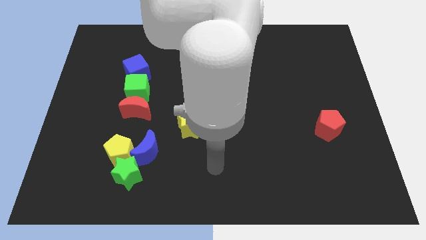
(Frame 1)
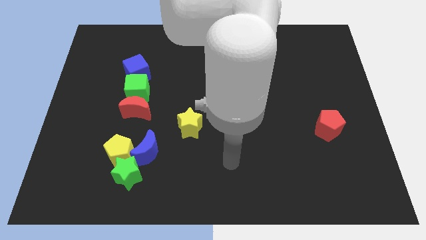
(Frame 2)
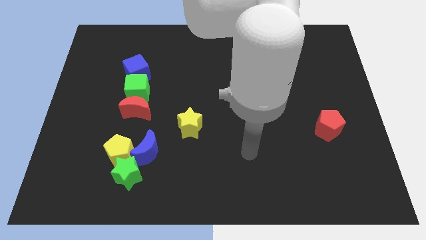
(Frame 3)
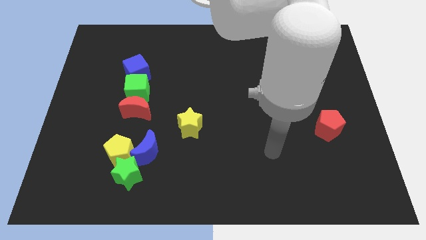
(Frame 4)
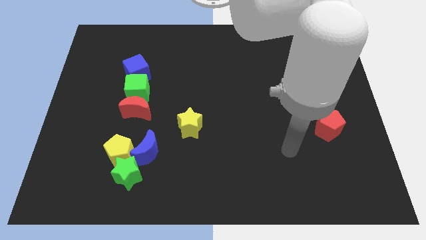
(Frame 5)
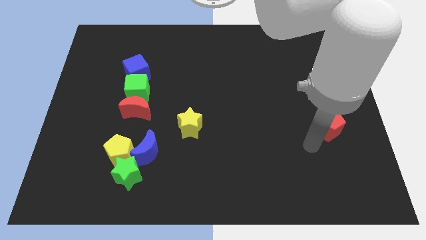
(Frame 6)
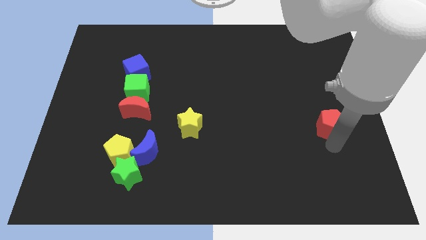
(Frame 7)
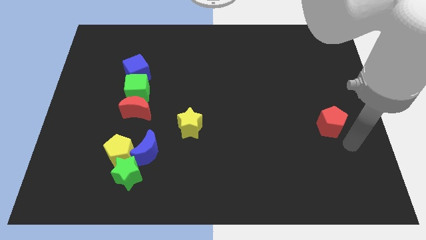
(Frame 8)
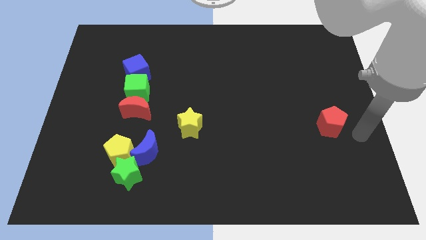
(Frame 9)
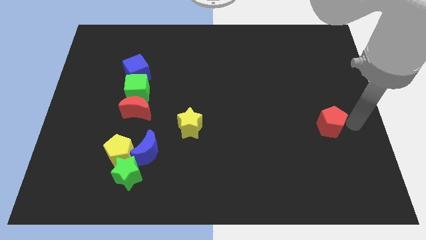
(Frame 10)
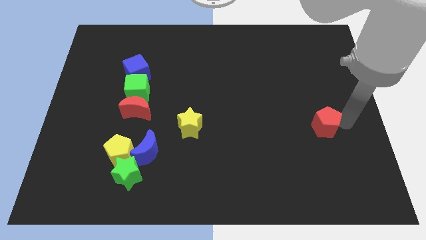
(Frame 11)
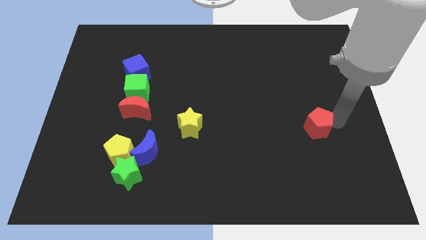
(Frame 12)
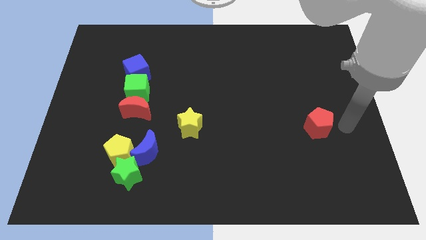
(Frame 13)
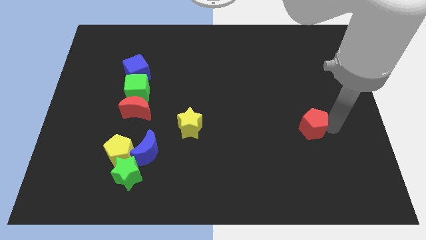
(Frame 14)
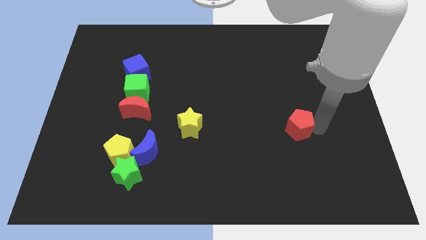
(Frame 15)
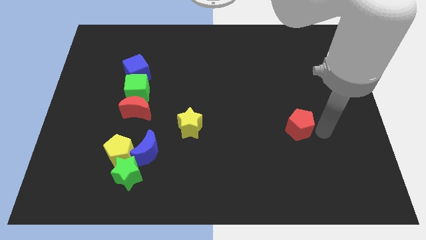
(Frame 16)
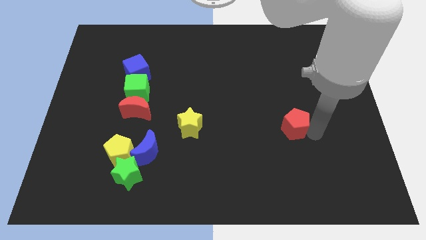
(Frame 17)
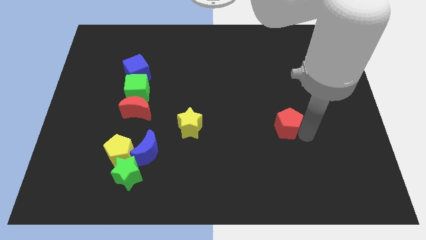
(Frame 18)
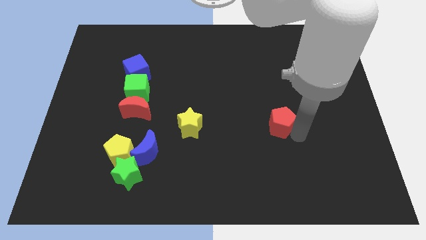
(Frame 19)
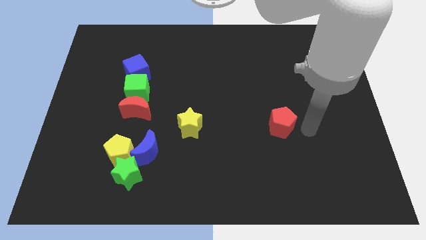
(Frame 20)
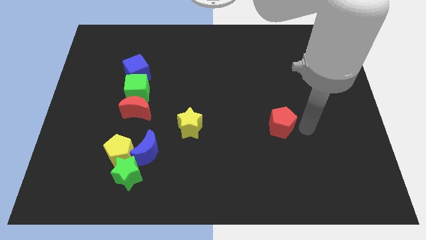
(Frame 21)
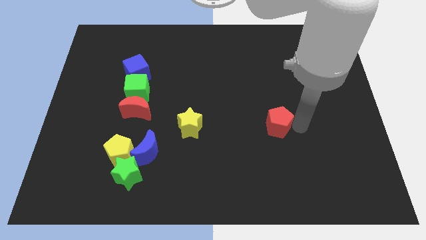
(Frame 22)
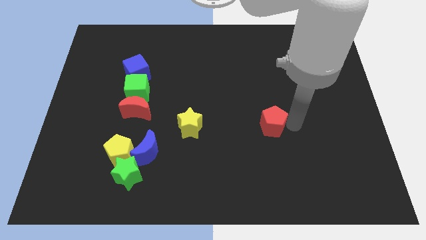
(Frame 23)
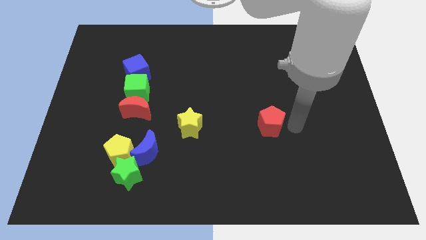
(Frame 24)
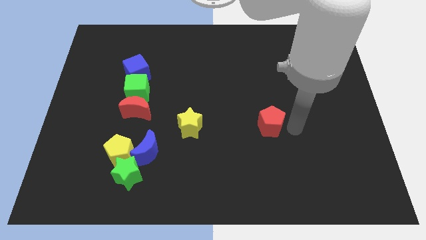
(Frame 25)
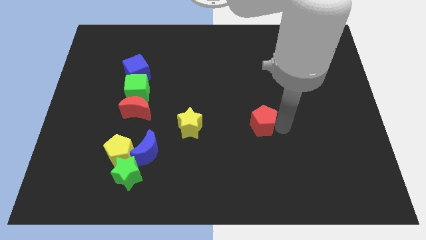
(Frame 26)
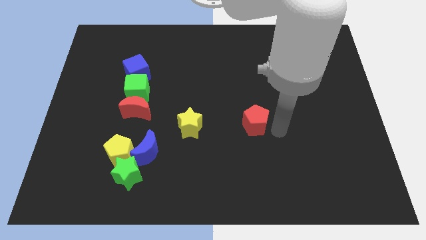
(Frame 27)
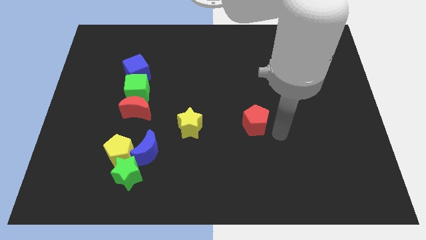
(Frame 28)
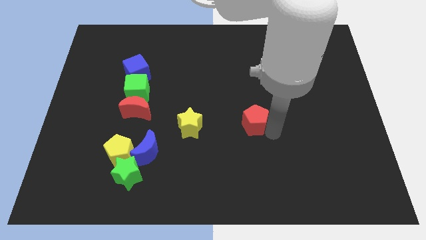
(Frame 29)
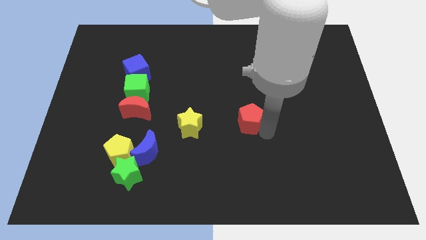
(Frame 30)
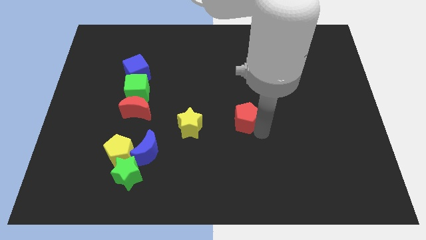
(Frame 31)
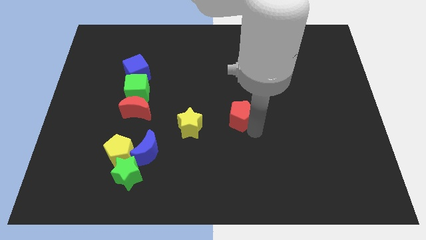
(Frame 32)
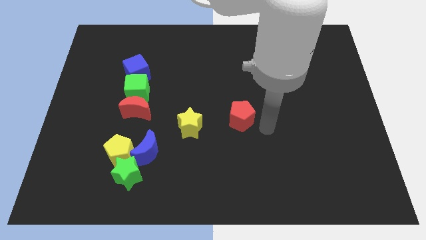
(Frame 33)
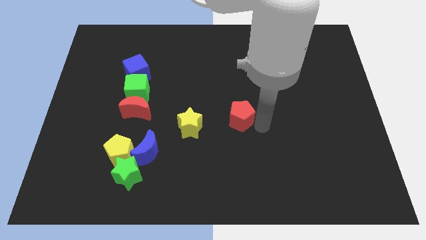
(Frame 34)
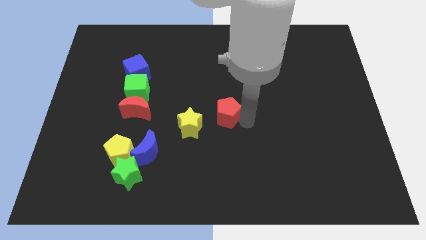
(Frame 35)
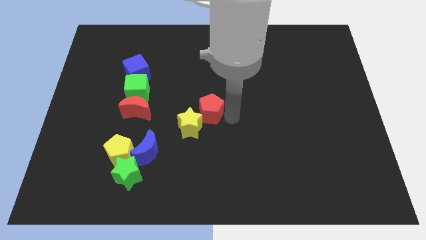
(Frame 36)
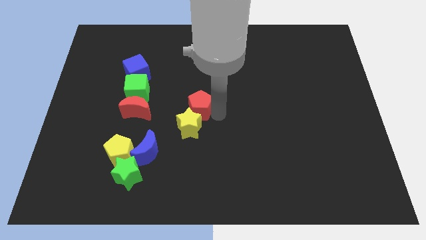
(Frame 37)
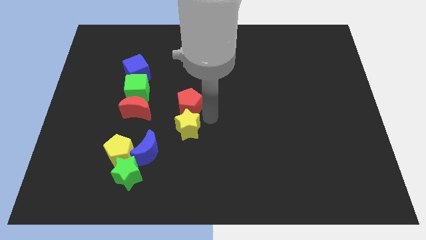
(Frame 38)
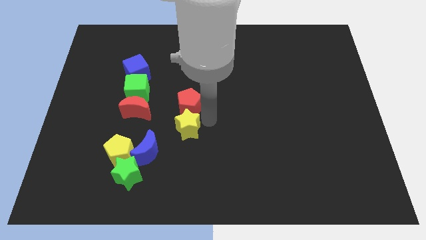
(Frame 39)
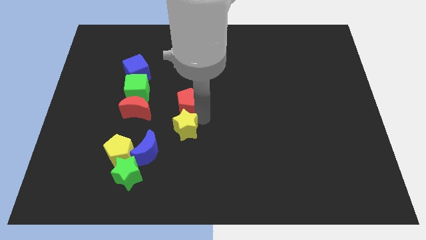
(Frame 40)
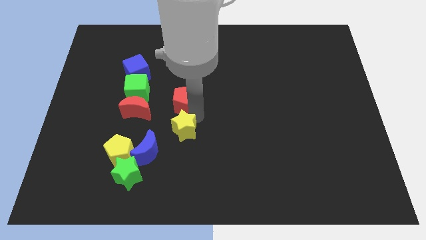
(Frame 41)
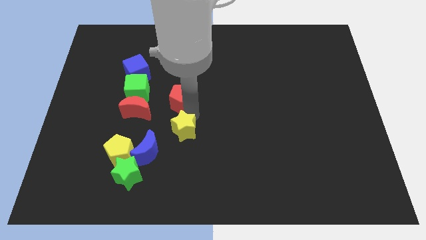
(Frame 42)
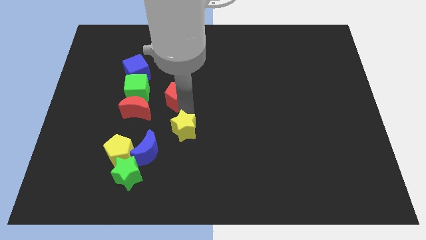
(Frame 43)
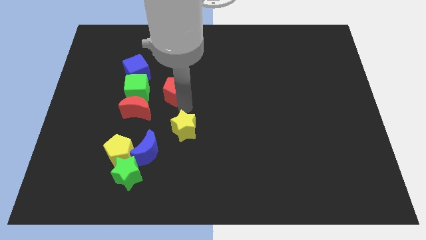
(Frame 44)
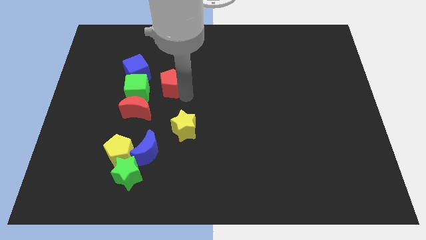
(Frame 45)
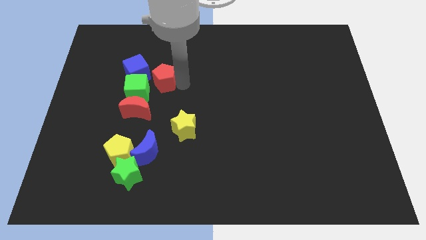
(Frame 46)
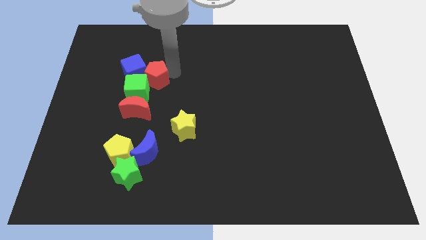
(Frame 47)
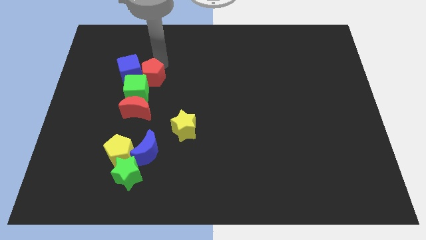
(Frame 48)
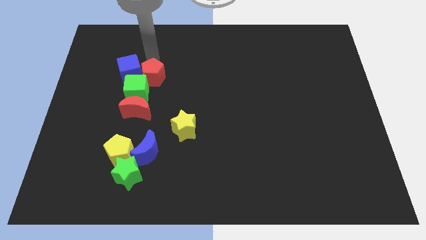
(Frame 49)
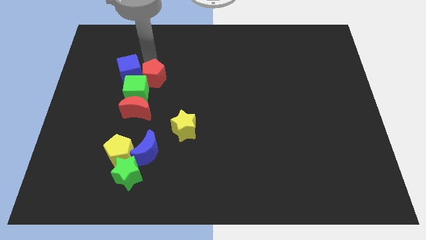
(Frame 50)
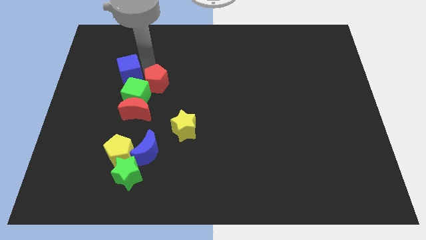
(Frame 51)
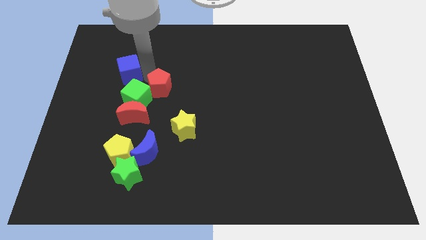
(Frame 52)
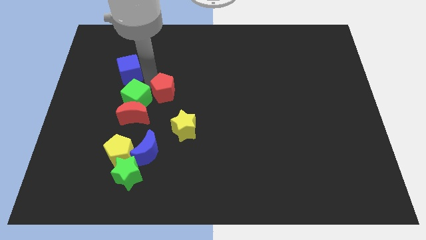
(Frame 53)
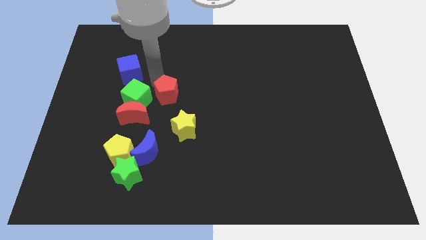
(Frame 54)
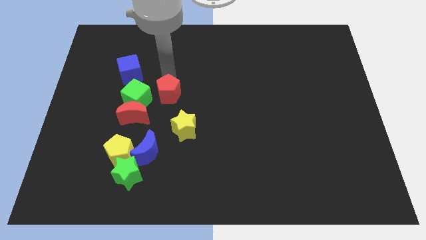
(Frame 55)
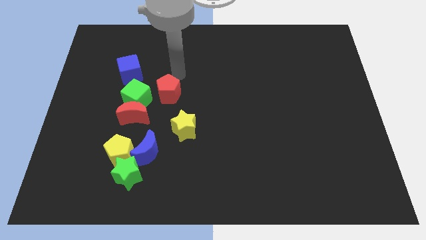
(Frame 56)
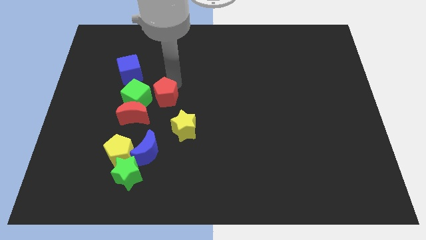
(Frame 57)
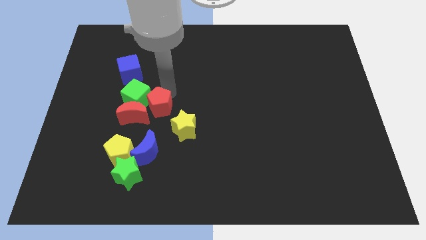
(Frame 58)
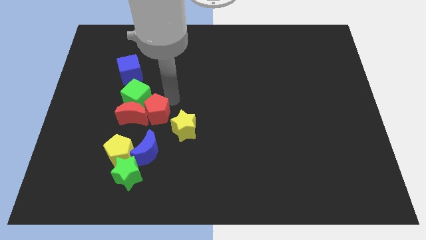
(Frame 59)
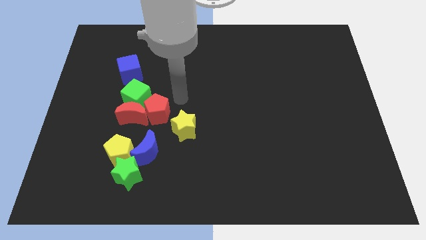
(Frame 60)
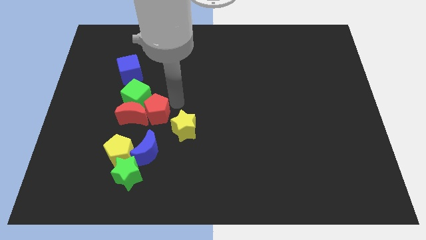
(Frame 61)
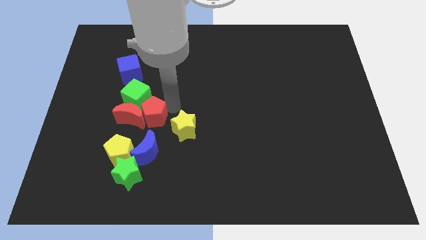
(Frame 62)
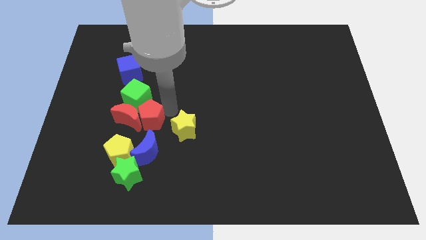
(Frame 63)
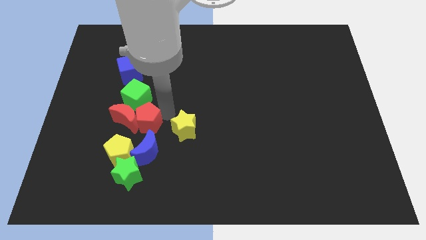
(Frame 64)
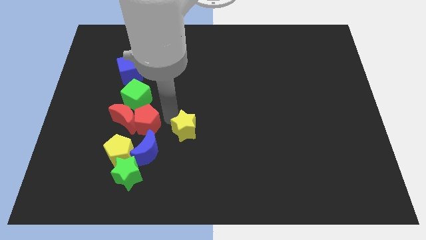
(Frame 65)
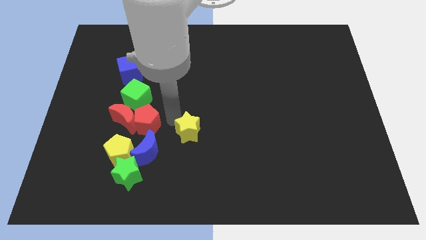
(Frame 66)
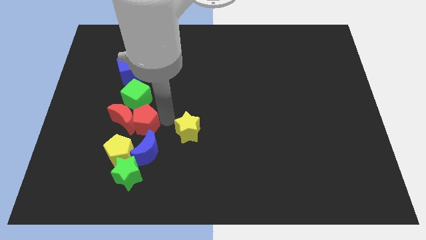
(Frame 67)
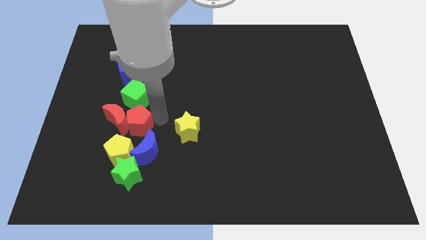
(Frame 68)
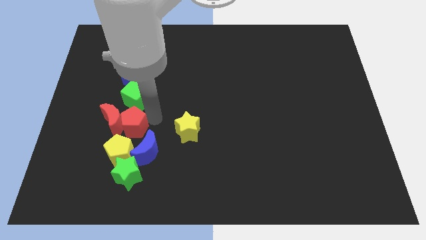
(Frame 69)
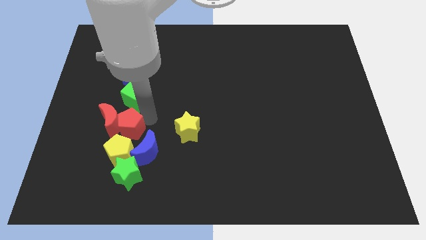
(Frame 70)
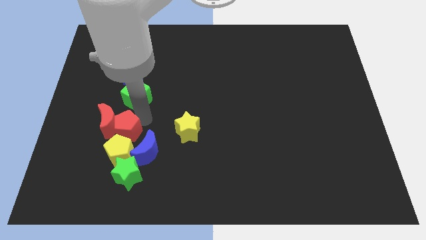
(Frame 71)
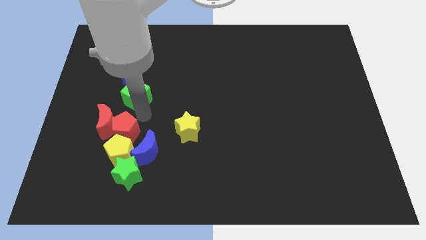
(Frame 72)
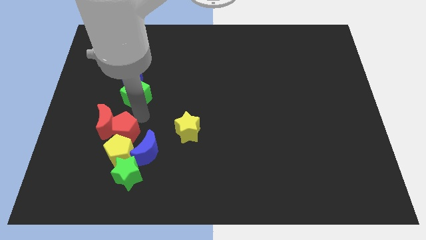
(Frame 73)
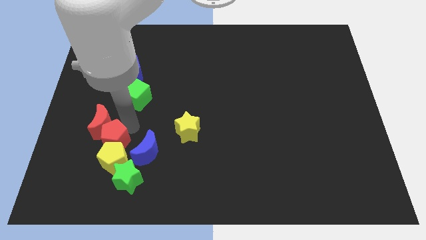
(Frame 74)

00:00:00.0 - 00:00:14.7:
slide the red pentagon diagonally up and to the left of the green star

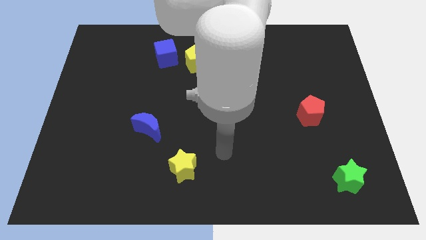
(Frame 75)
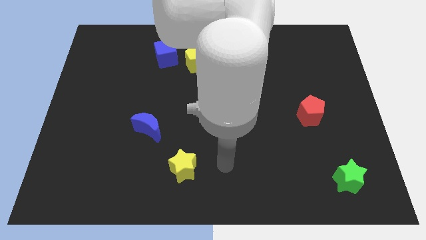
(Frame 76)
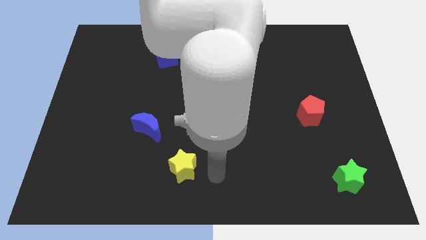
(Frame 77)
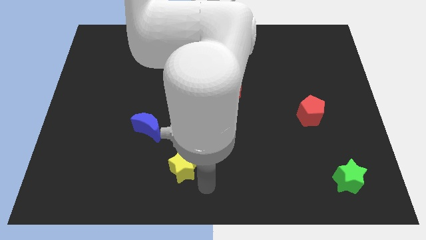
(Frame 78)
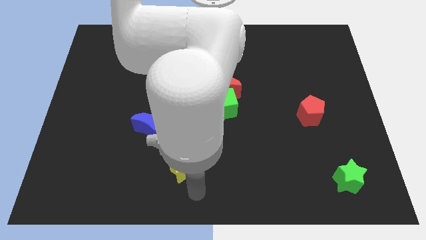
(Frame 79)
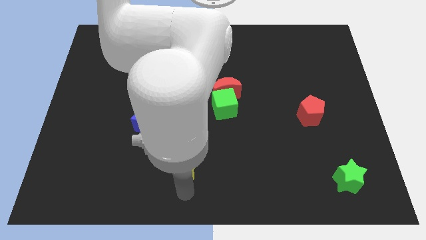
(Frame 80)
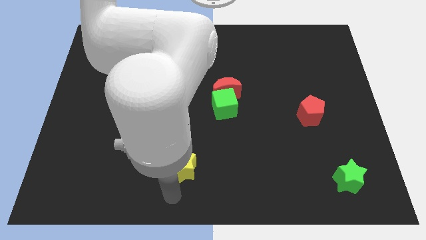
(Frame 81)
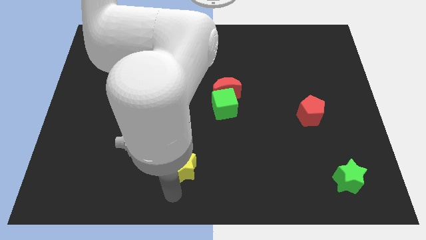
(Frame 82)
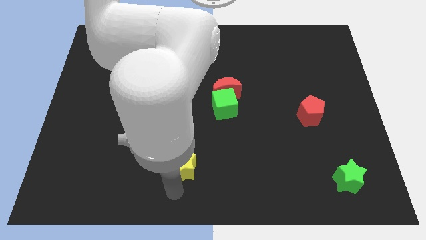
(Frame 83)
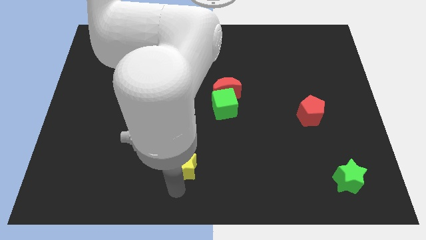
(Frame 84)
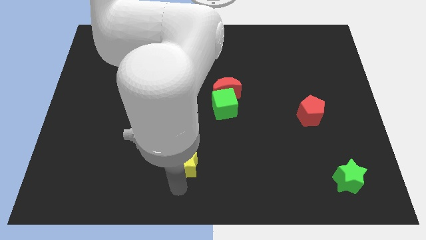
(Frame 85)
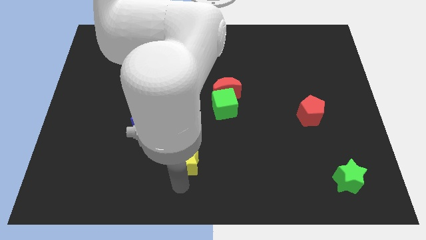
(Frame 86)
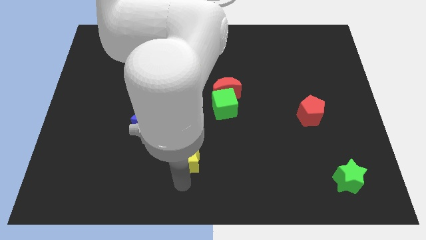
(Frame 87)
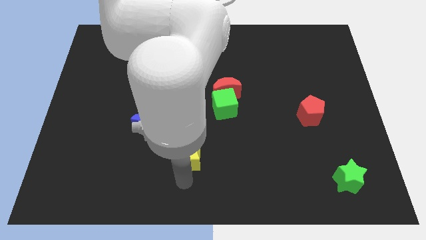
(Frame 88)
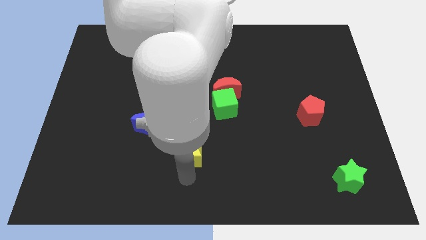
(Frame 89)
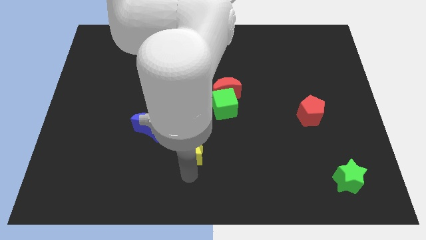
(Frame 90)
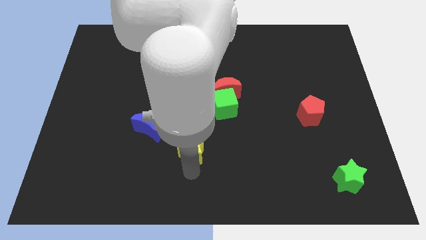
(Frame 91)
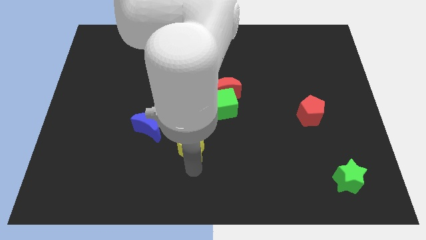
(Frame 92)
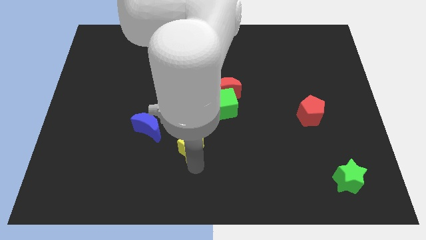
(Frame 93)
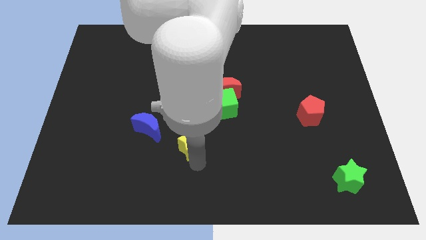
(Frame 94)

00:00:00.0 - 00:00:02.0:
move the yellow star right of the blue moon
